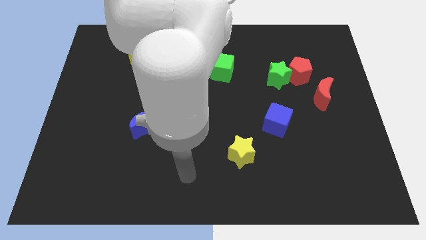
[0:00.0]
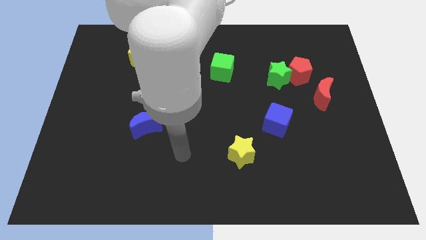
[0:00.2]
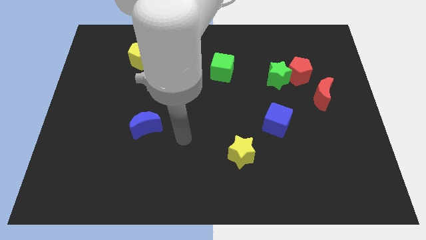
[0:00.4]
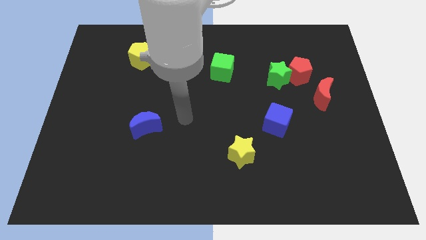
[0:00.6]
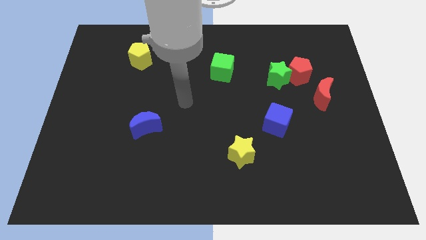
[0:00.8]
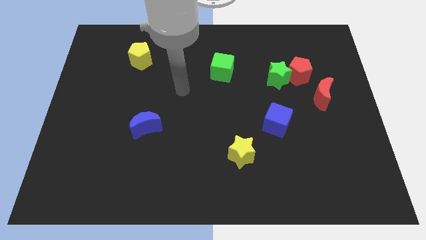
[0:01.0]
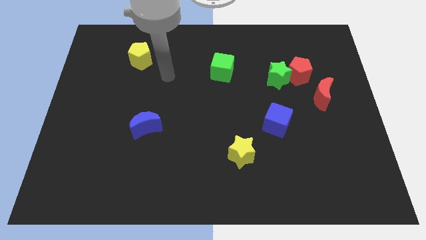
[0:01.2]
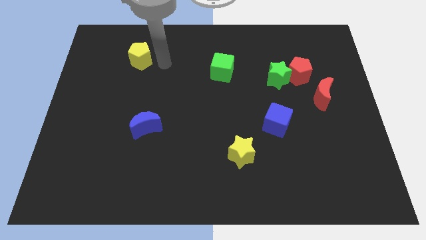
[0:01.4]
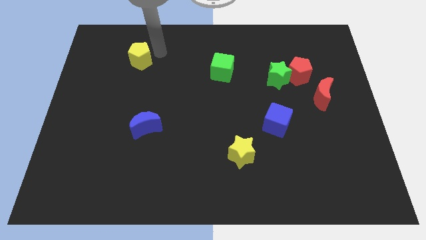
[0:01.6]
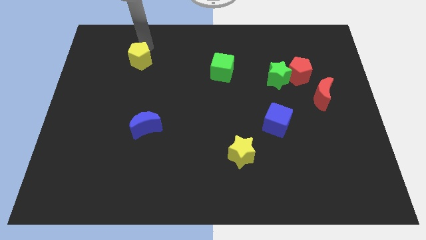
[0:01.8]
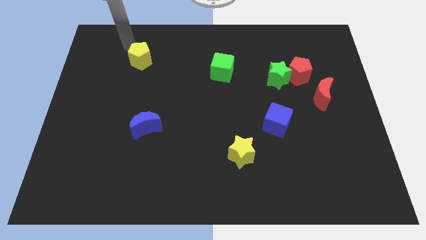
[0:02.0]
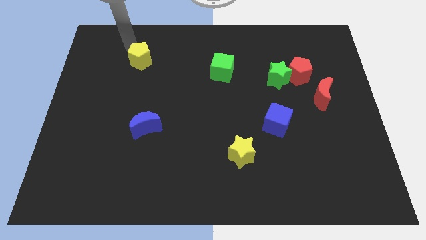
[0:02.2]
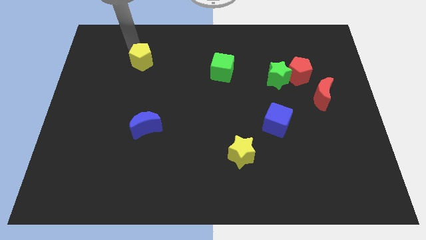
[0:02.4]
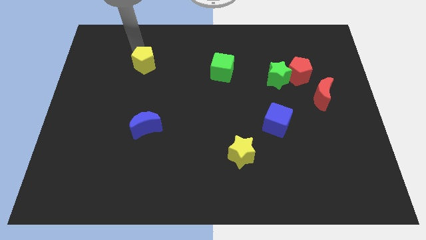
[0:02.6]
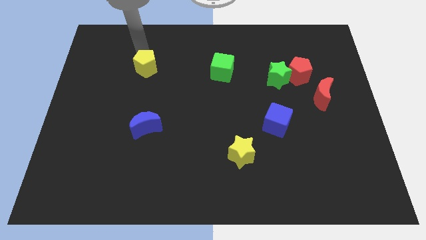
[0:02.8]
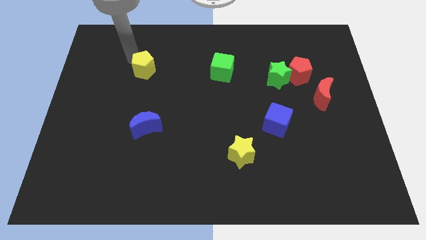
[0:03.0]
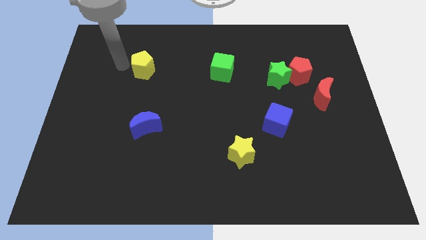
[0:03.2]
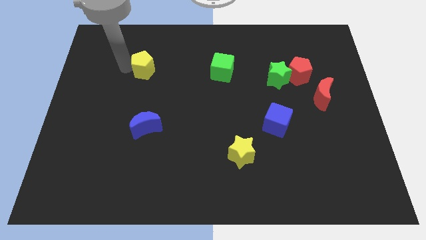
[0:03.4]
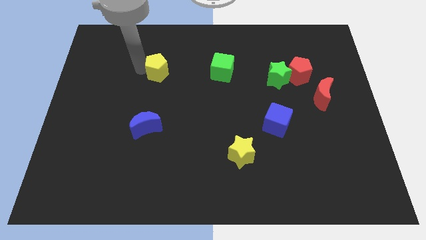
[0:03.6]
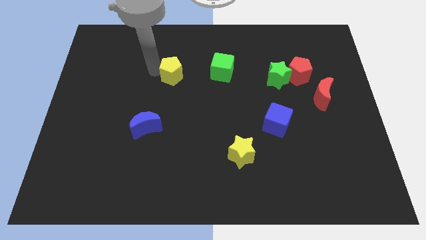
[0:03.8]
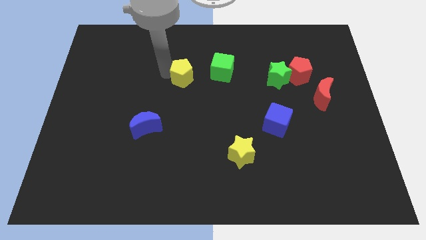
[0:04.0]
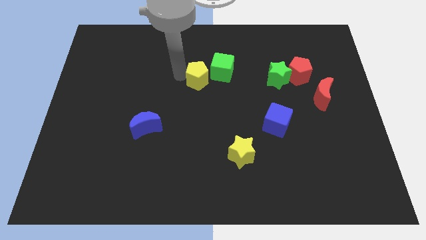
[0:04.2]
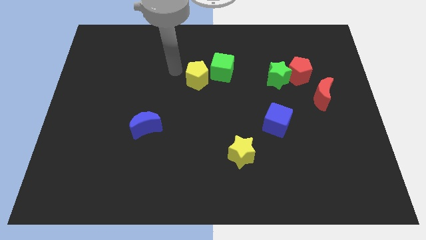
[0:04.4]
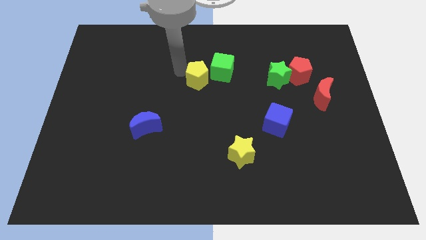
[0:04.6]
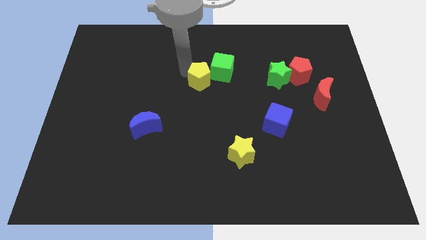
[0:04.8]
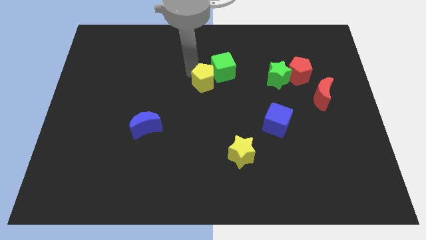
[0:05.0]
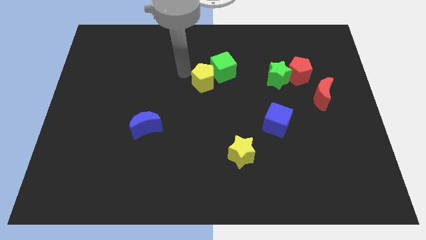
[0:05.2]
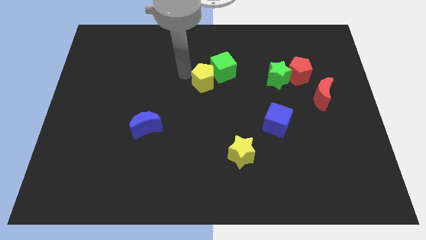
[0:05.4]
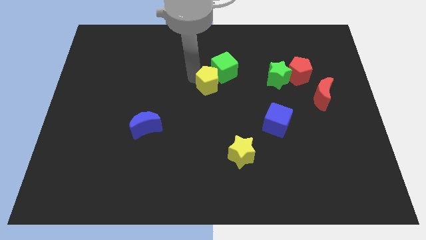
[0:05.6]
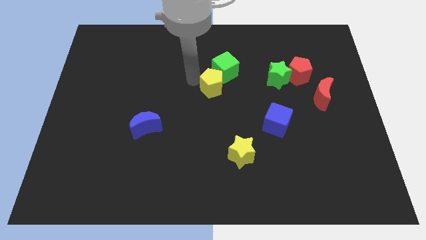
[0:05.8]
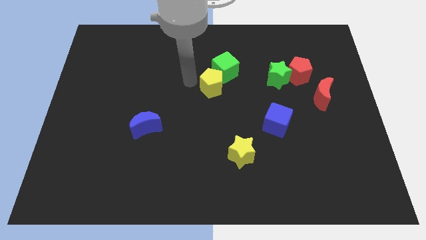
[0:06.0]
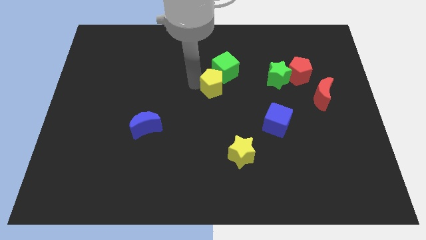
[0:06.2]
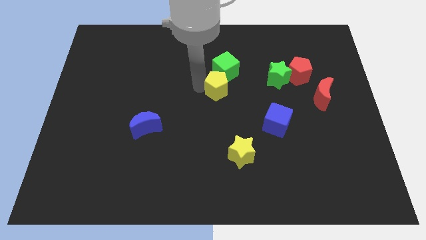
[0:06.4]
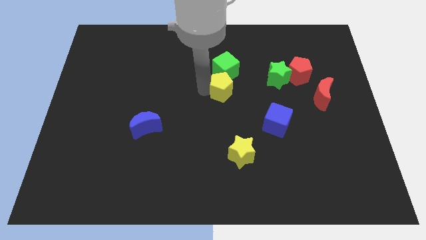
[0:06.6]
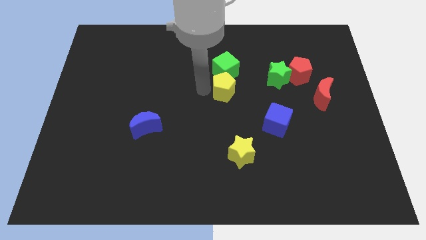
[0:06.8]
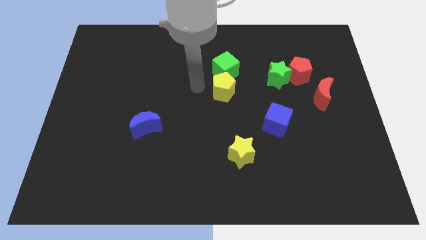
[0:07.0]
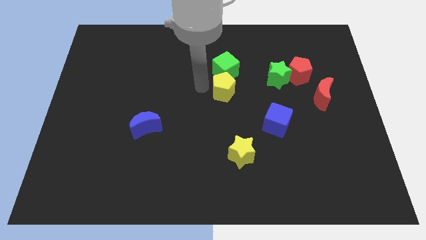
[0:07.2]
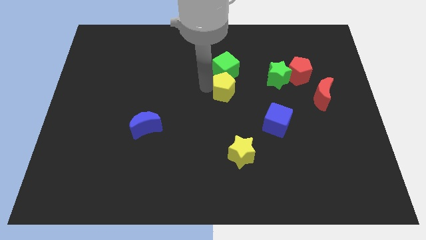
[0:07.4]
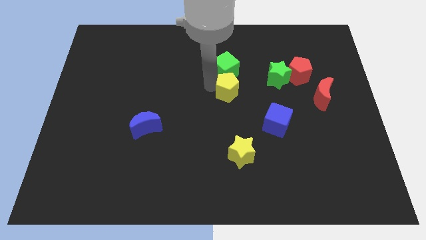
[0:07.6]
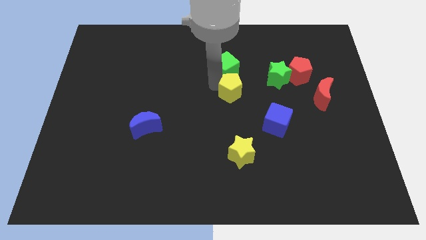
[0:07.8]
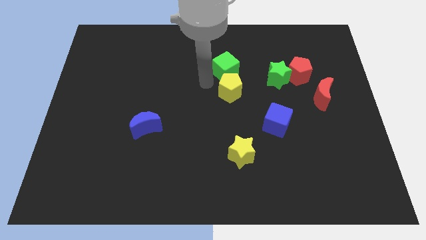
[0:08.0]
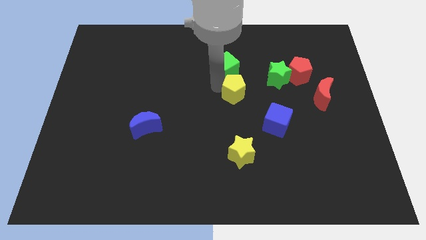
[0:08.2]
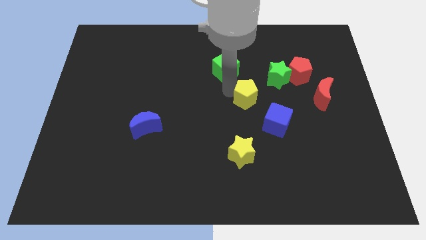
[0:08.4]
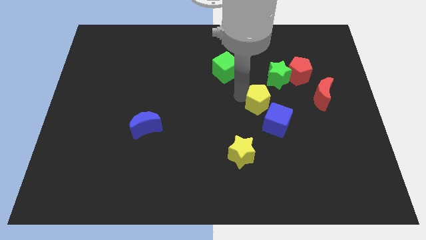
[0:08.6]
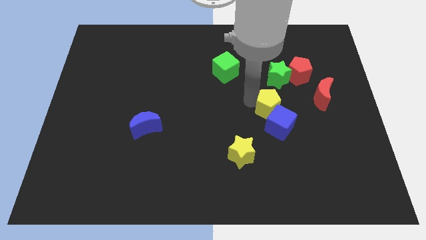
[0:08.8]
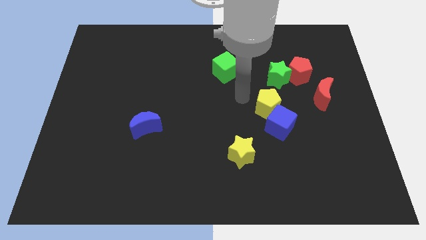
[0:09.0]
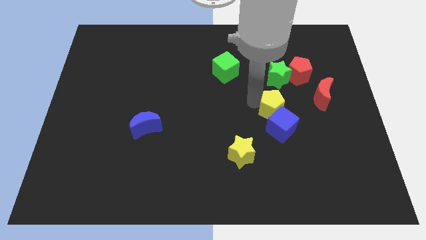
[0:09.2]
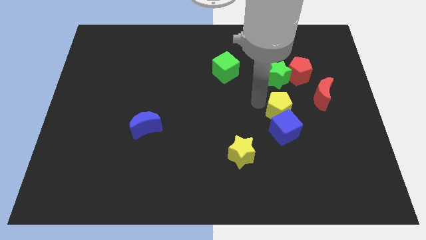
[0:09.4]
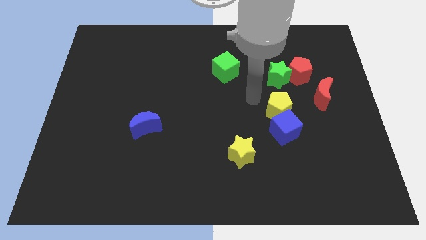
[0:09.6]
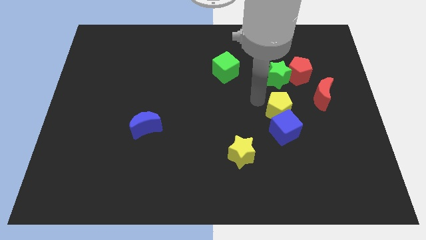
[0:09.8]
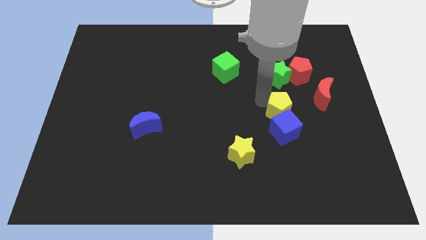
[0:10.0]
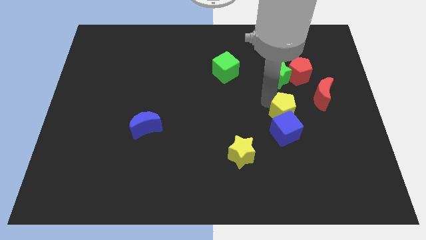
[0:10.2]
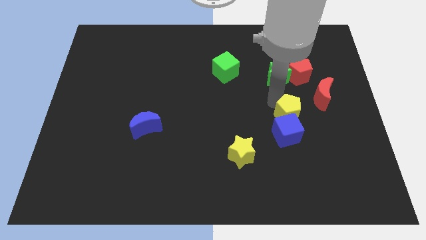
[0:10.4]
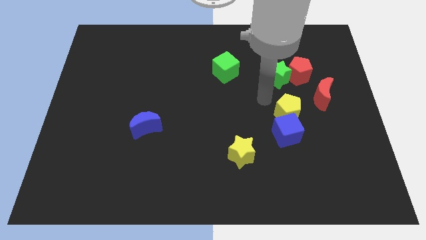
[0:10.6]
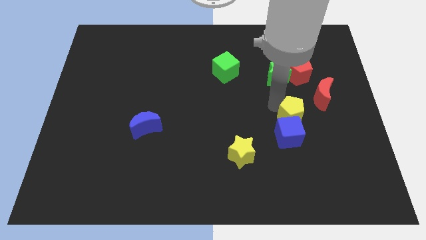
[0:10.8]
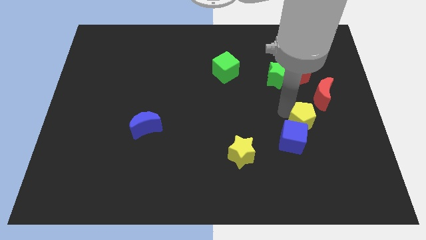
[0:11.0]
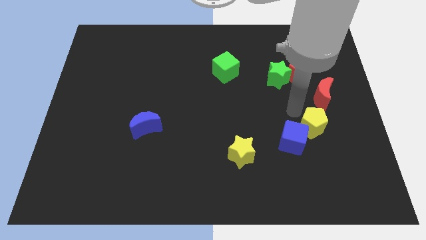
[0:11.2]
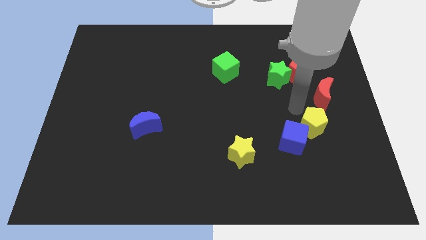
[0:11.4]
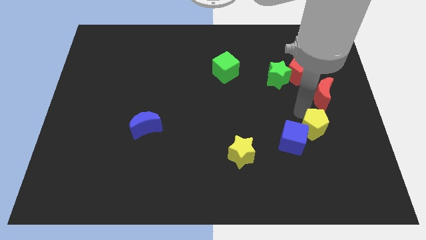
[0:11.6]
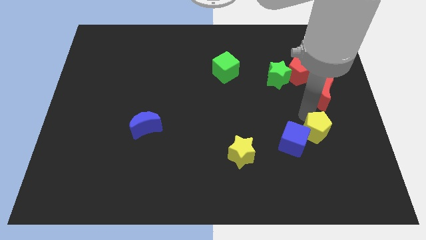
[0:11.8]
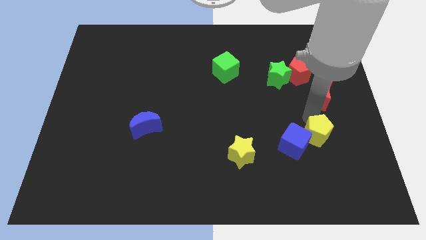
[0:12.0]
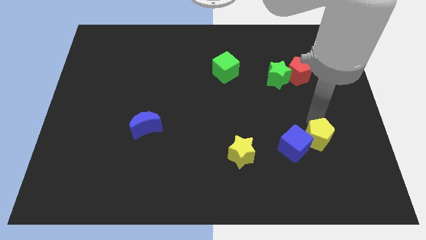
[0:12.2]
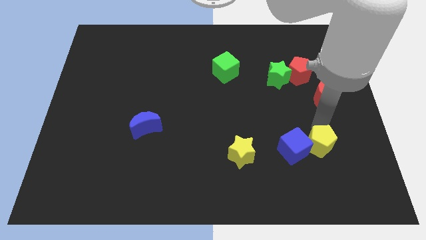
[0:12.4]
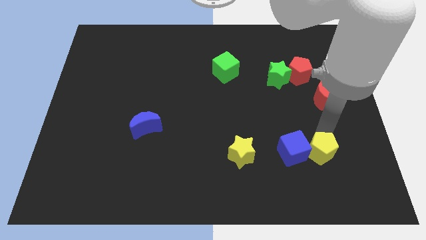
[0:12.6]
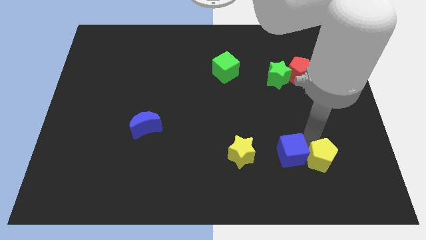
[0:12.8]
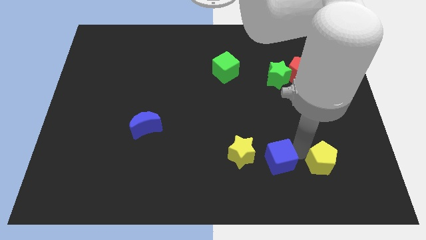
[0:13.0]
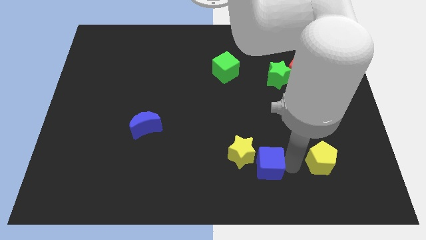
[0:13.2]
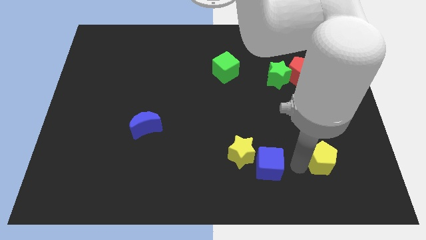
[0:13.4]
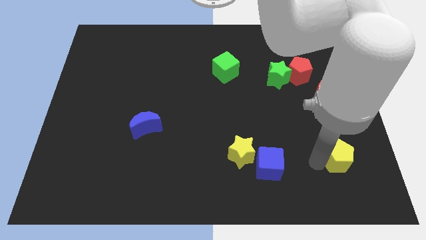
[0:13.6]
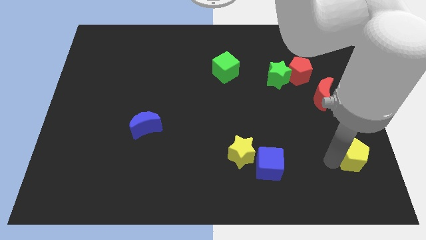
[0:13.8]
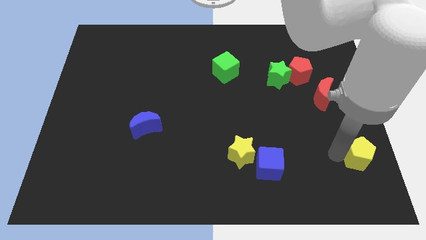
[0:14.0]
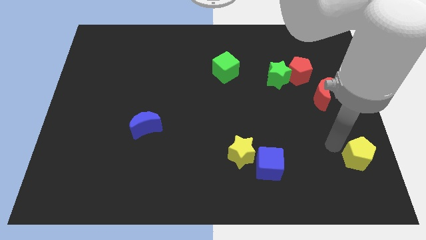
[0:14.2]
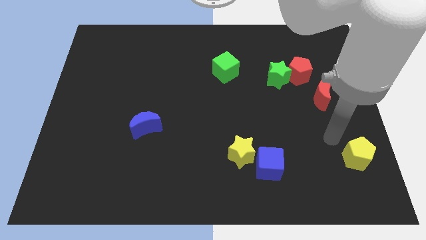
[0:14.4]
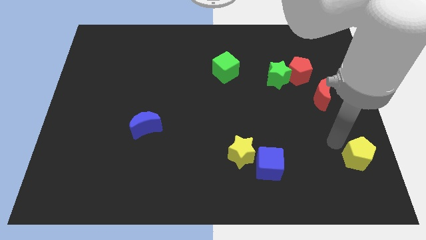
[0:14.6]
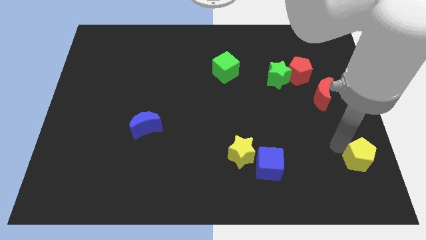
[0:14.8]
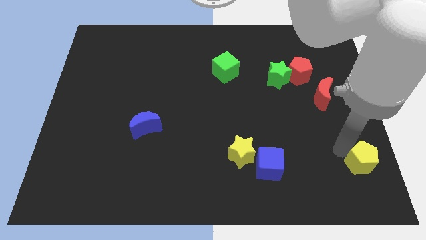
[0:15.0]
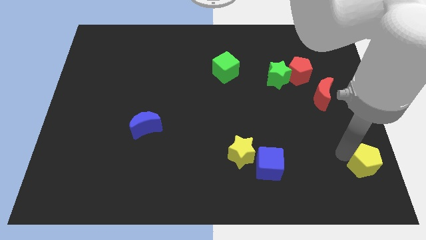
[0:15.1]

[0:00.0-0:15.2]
push the yellow pentagon to the lower right corner
